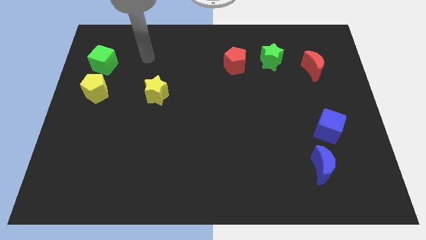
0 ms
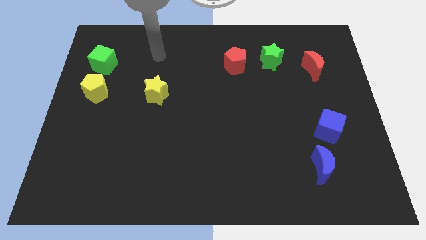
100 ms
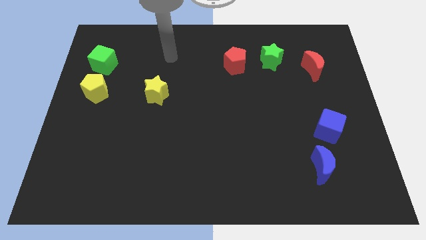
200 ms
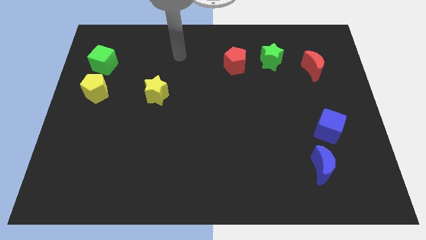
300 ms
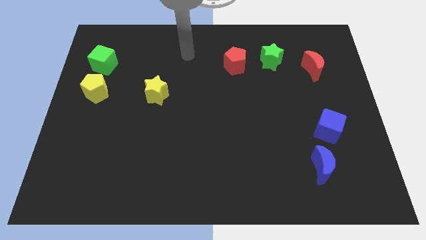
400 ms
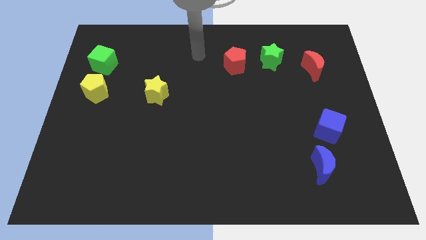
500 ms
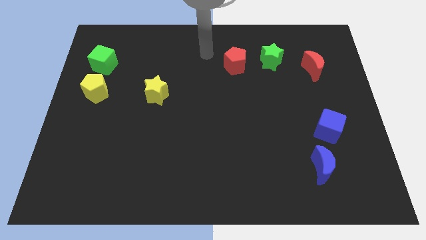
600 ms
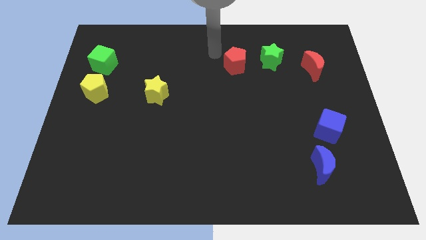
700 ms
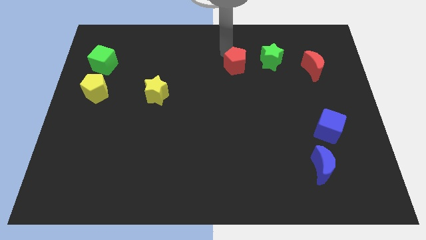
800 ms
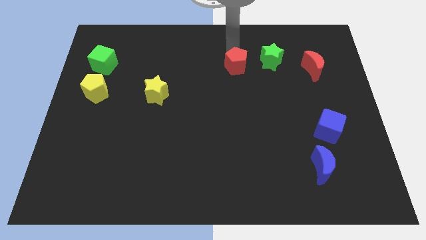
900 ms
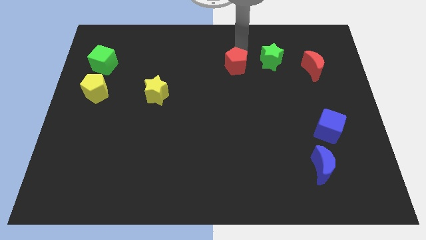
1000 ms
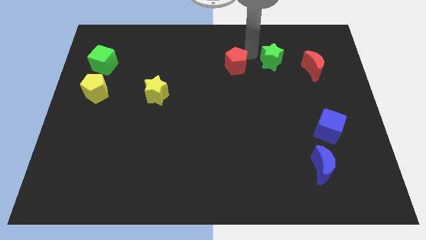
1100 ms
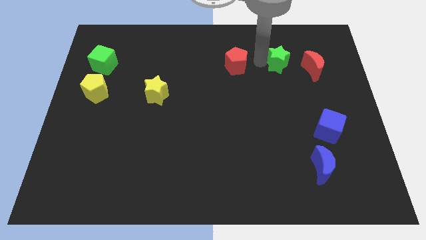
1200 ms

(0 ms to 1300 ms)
separate the red pentagon from the green star

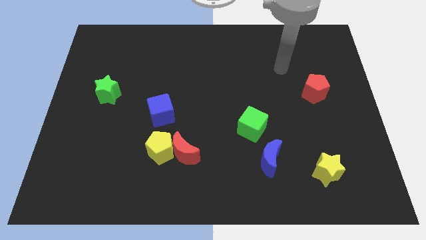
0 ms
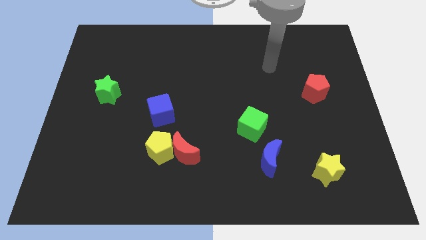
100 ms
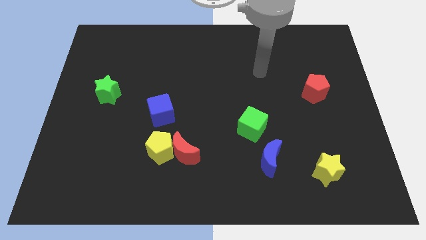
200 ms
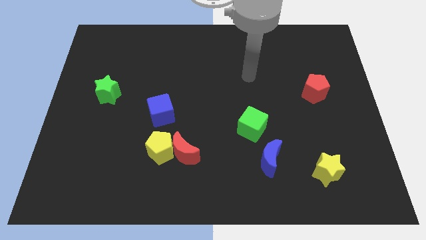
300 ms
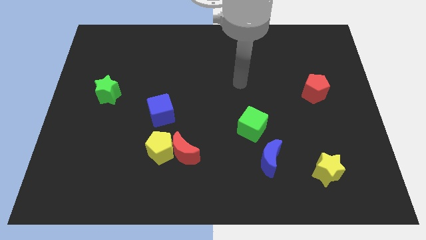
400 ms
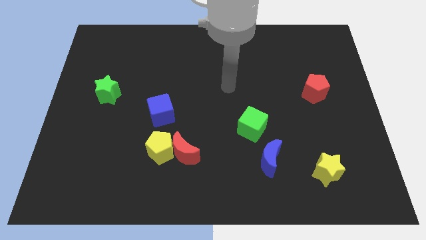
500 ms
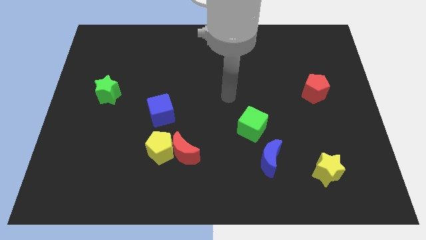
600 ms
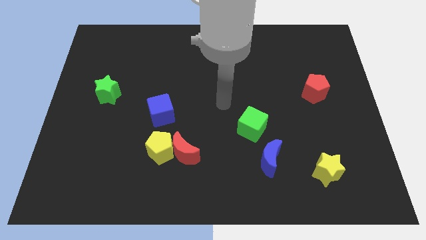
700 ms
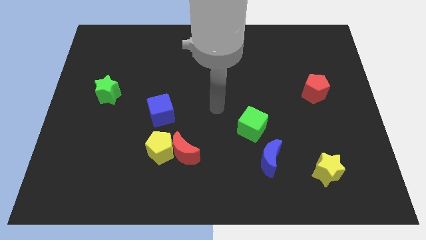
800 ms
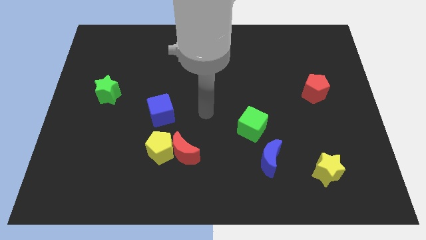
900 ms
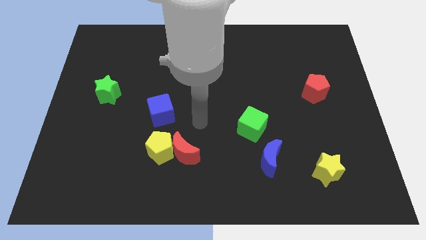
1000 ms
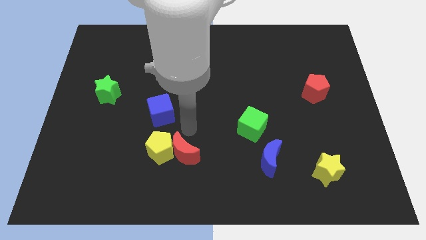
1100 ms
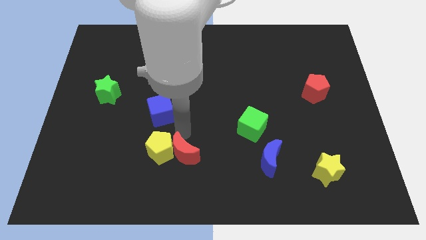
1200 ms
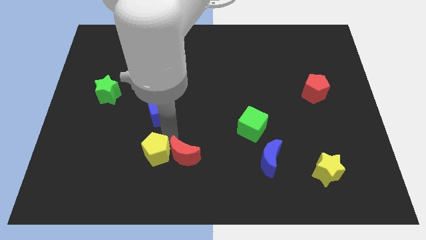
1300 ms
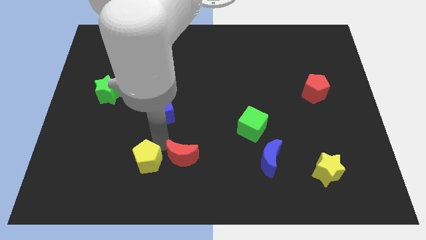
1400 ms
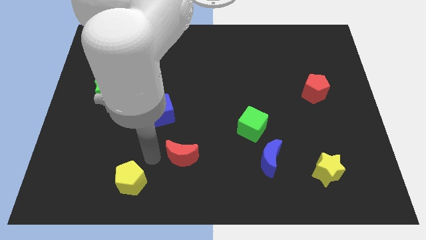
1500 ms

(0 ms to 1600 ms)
move the red moon away from the yellow pentagon

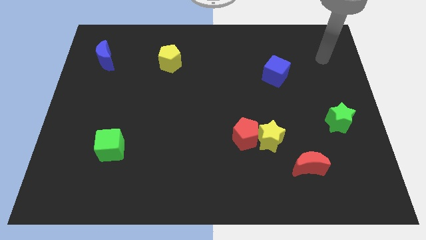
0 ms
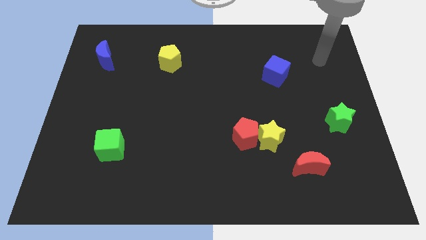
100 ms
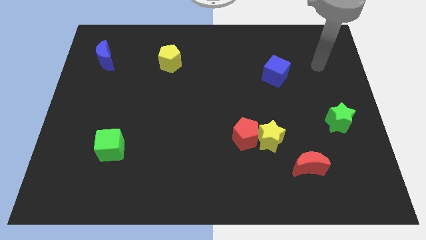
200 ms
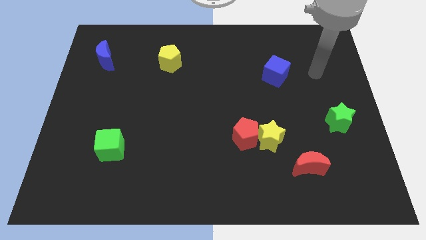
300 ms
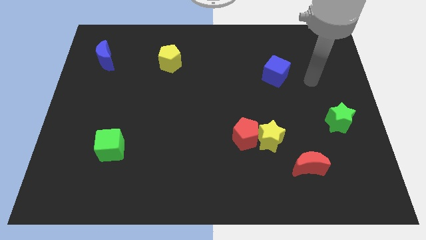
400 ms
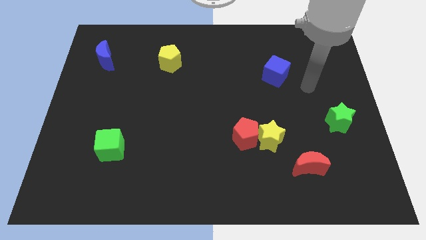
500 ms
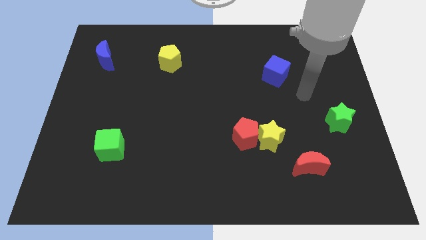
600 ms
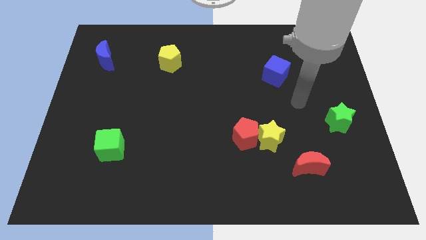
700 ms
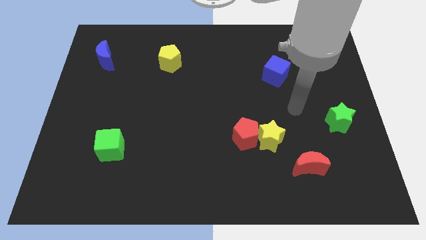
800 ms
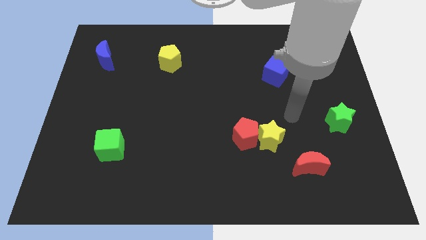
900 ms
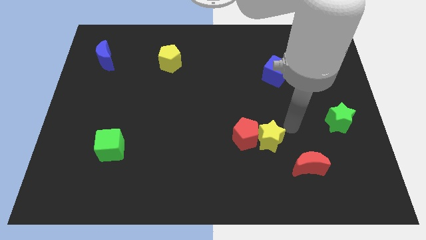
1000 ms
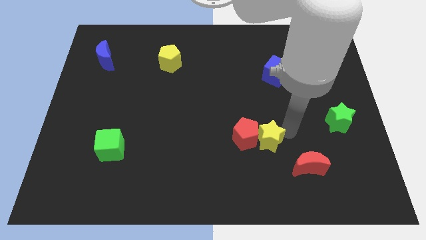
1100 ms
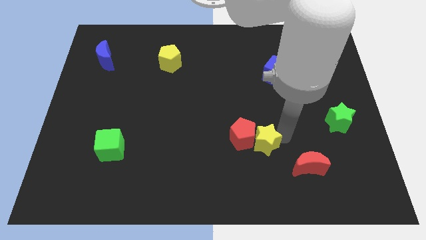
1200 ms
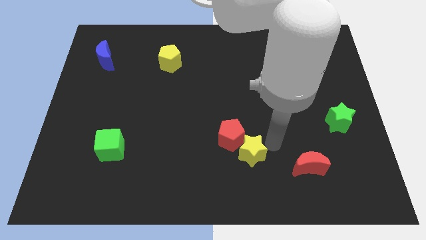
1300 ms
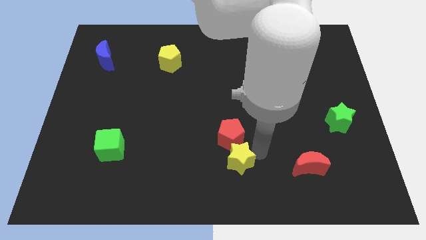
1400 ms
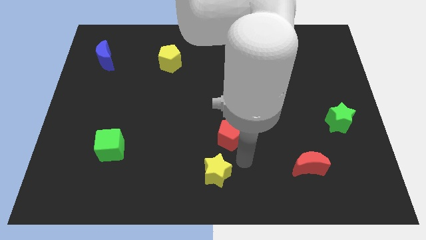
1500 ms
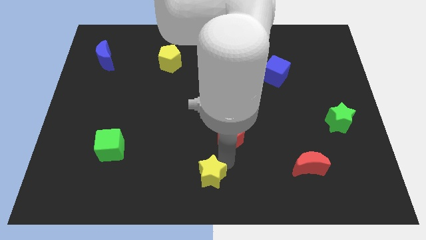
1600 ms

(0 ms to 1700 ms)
pull the red pentagon apart from the yellow star

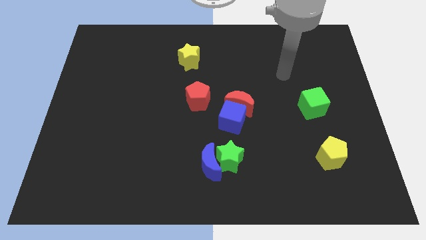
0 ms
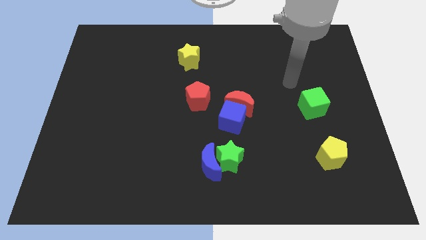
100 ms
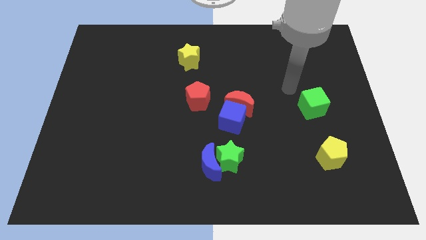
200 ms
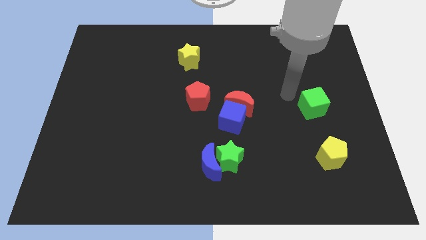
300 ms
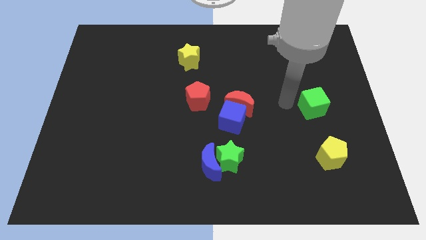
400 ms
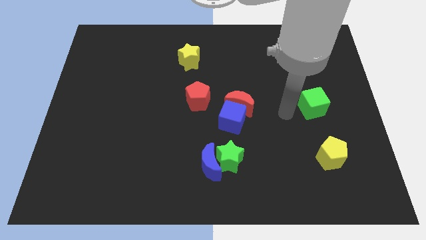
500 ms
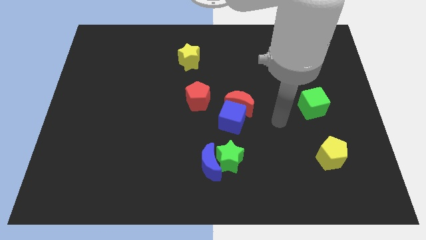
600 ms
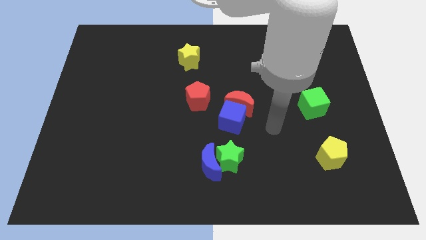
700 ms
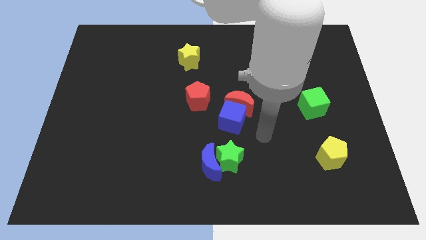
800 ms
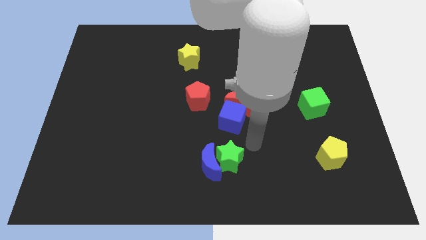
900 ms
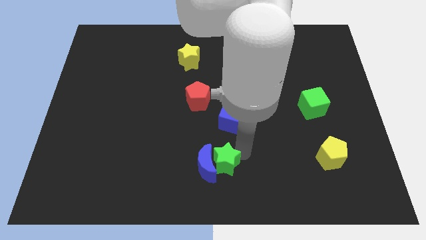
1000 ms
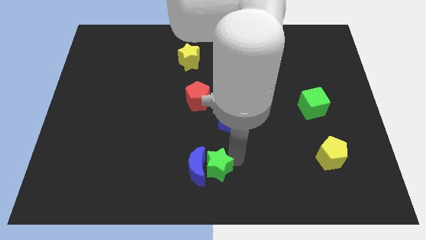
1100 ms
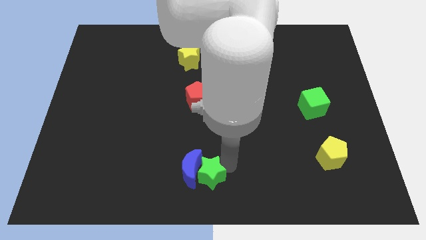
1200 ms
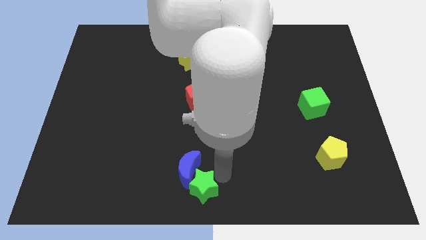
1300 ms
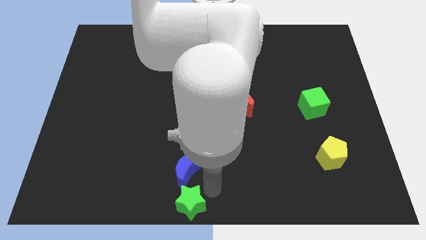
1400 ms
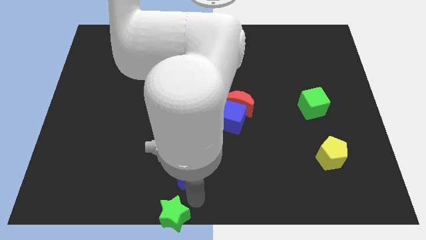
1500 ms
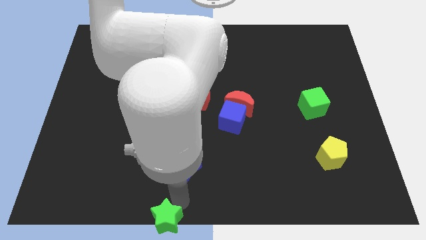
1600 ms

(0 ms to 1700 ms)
separate the blue moon from the green star

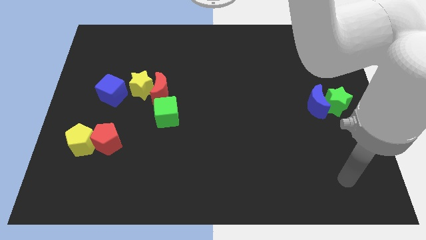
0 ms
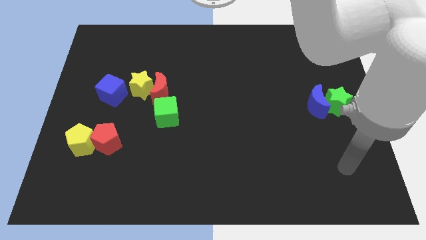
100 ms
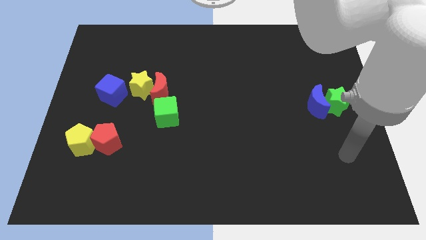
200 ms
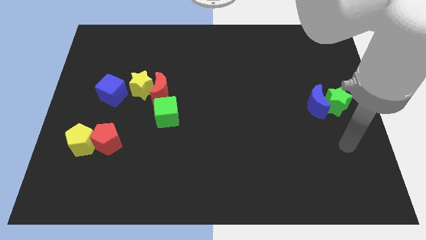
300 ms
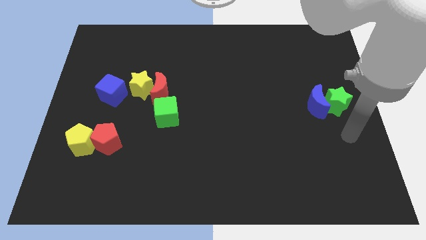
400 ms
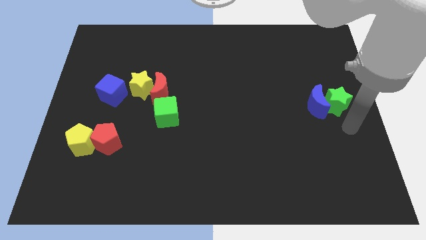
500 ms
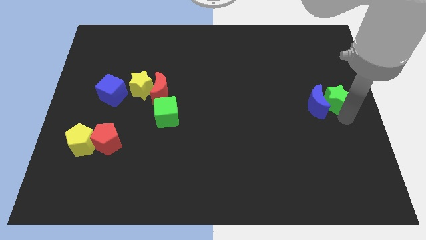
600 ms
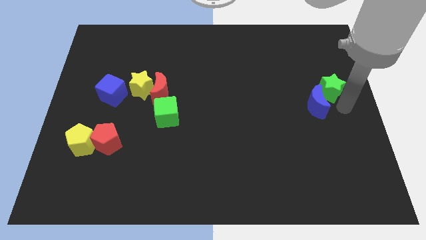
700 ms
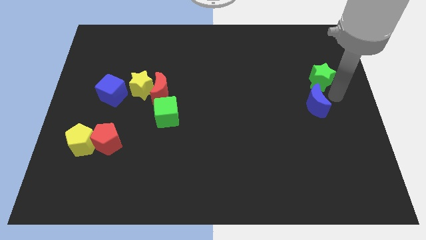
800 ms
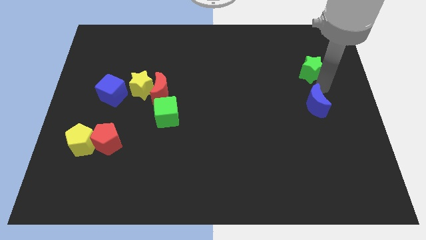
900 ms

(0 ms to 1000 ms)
pull the blue moon apart from the green star

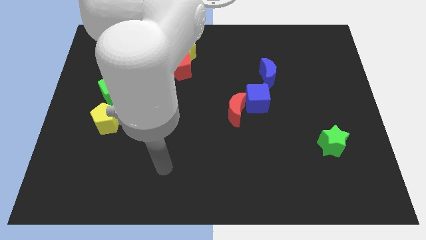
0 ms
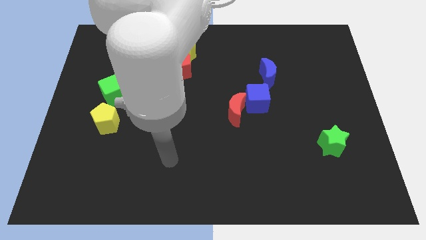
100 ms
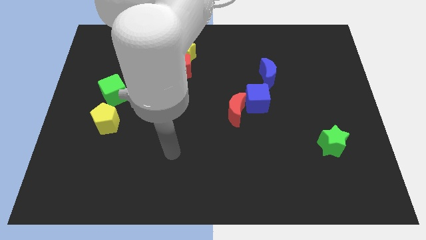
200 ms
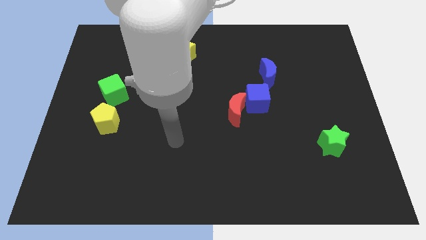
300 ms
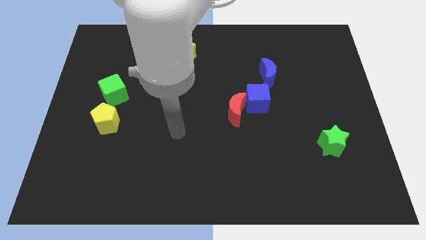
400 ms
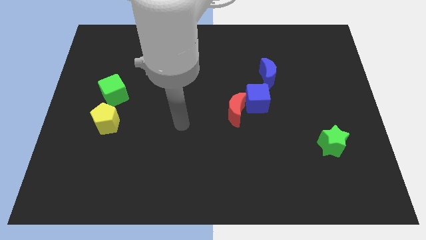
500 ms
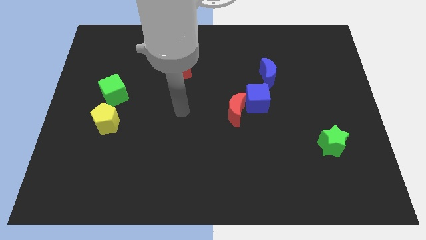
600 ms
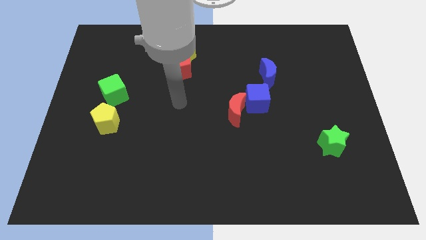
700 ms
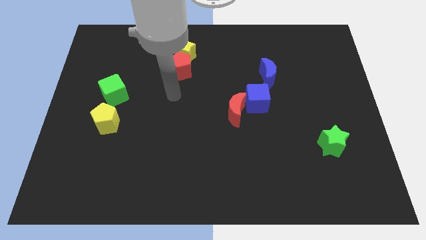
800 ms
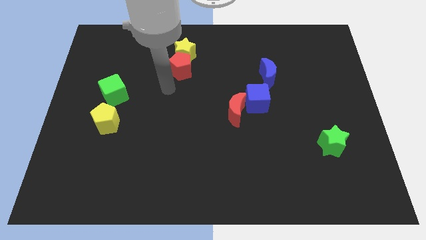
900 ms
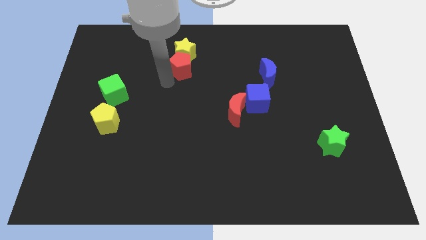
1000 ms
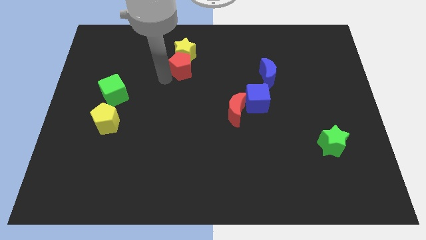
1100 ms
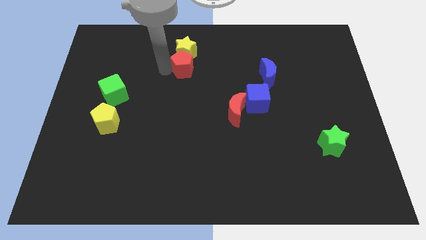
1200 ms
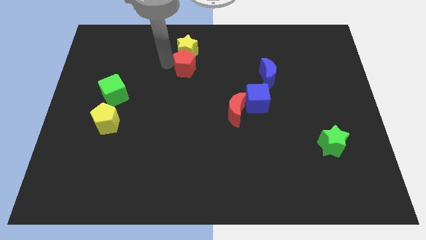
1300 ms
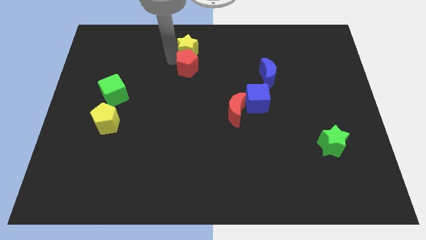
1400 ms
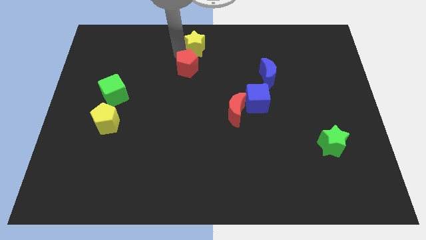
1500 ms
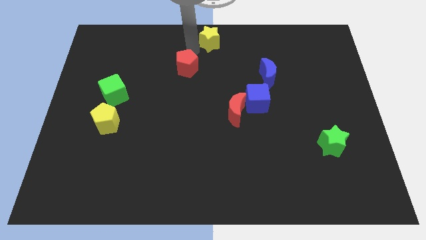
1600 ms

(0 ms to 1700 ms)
separate the red pentagon from the yellow star

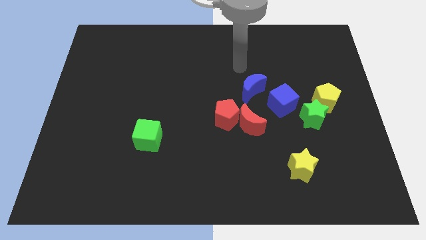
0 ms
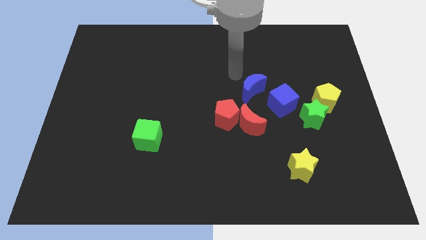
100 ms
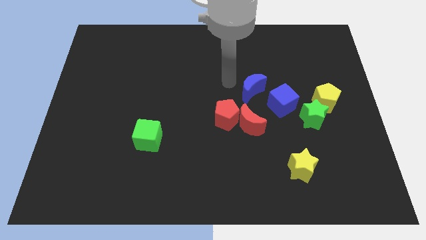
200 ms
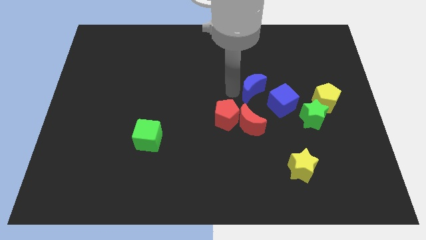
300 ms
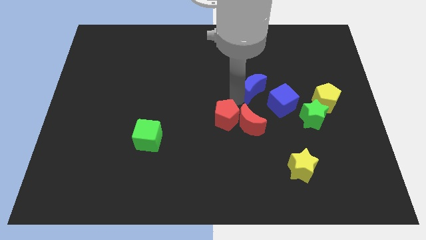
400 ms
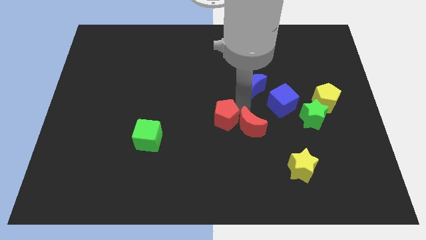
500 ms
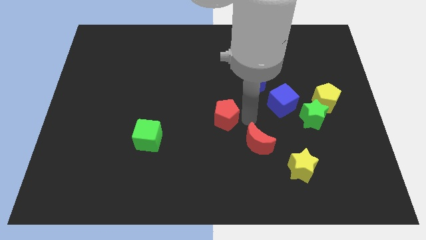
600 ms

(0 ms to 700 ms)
move the red pentagon away from the red moon
